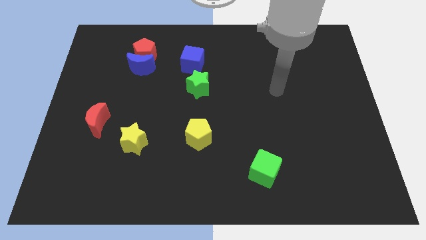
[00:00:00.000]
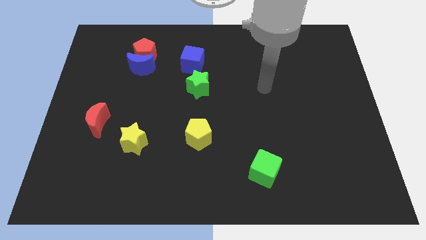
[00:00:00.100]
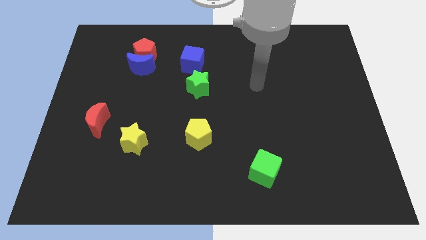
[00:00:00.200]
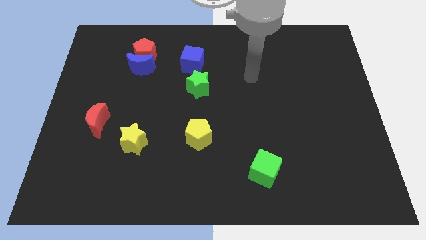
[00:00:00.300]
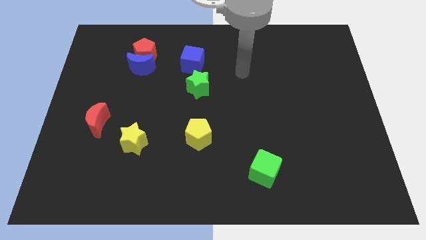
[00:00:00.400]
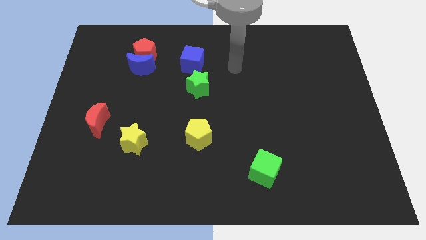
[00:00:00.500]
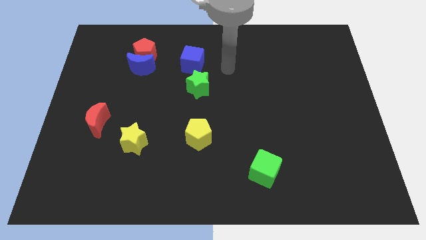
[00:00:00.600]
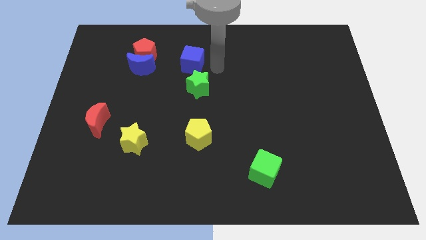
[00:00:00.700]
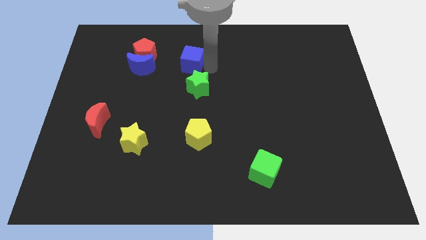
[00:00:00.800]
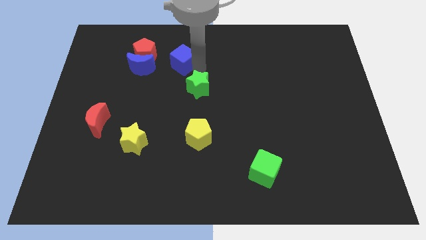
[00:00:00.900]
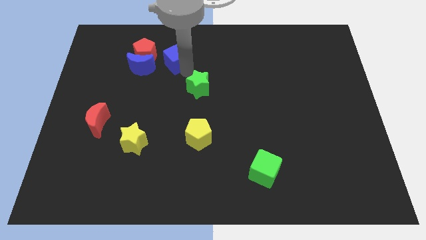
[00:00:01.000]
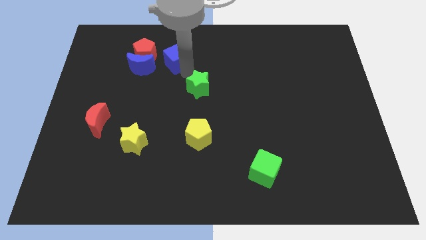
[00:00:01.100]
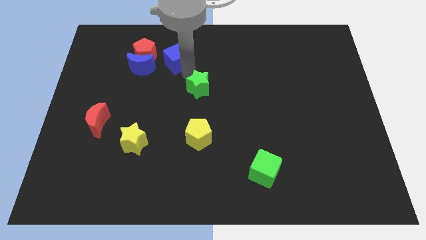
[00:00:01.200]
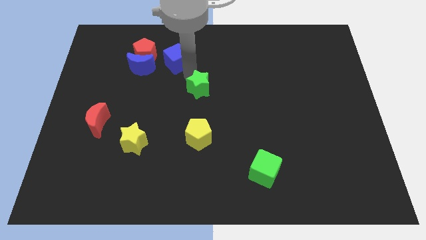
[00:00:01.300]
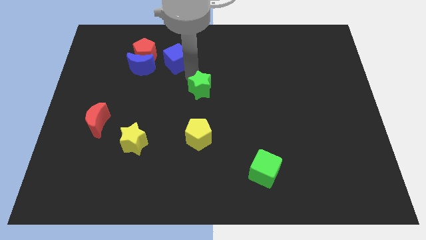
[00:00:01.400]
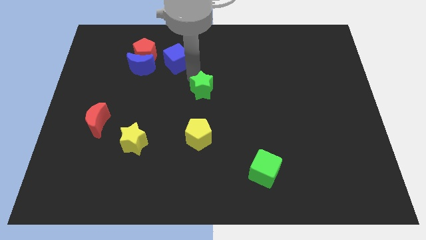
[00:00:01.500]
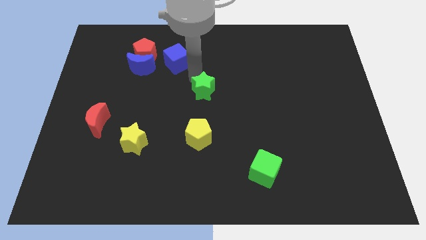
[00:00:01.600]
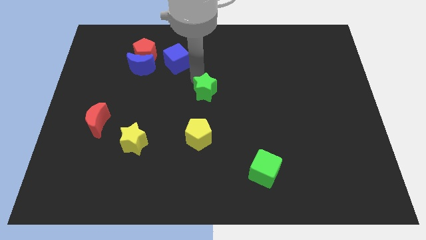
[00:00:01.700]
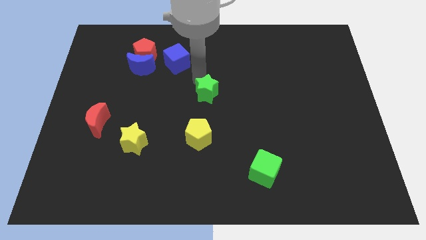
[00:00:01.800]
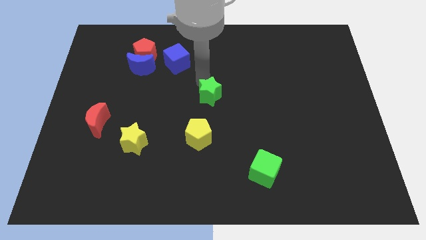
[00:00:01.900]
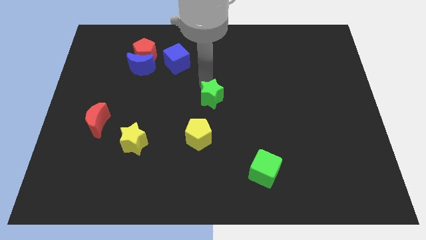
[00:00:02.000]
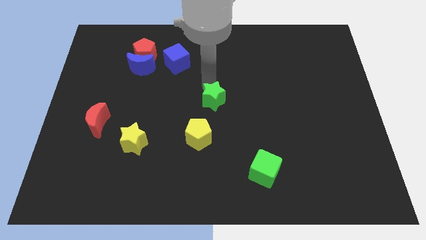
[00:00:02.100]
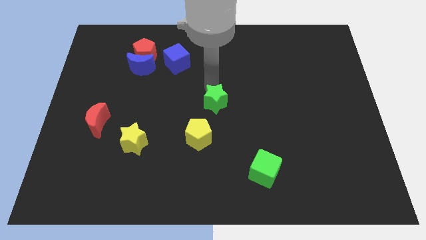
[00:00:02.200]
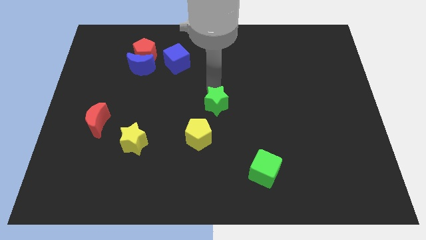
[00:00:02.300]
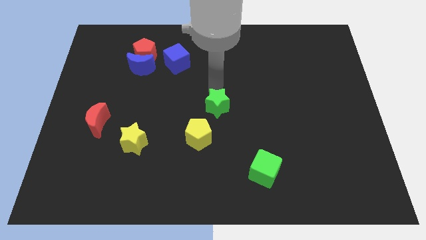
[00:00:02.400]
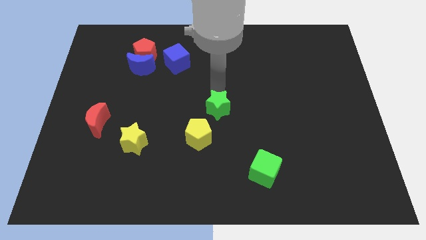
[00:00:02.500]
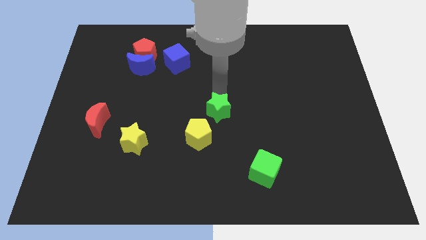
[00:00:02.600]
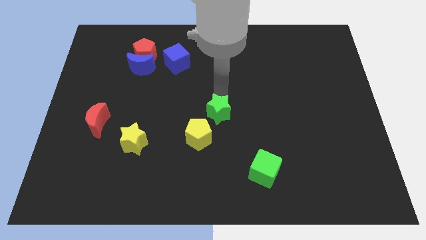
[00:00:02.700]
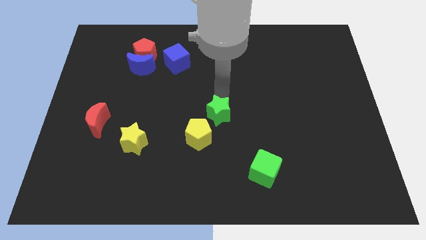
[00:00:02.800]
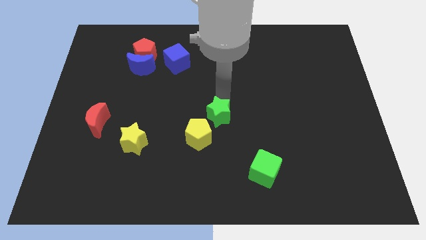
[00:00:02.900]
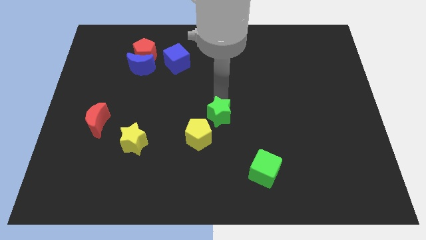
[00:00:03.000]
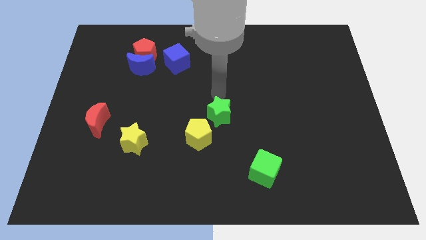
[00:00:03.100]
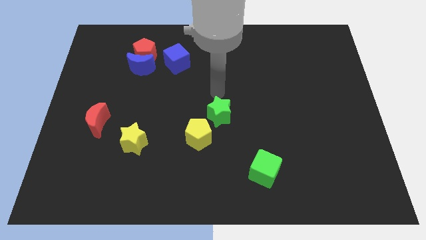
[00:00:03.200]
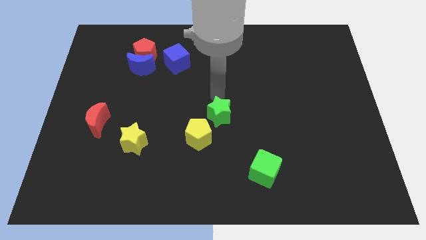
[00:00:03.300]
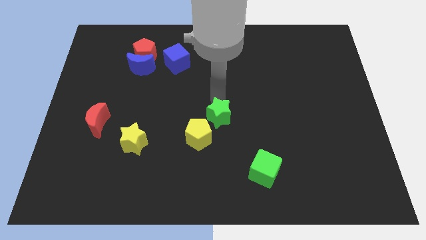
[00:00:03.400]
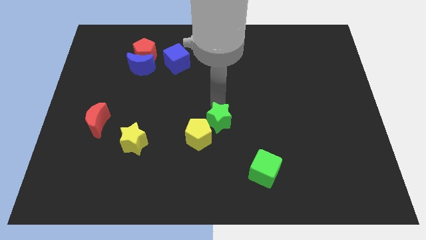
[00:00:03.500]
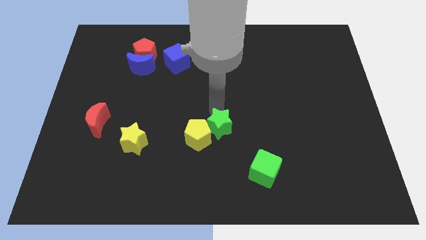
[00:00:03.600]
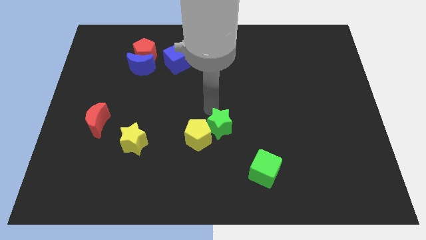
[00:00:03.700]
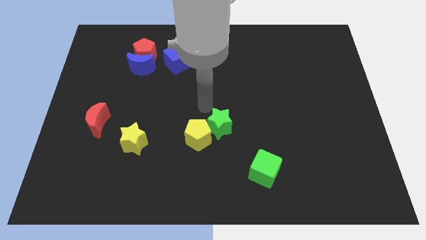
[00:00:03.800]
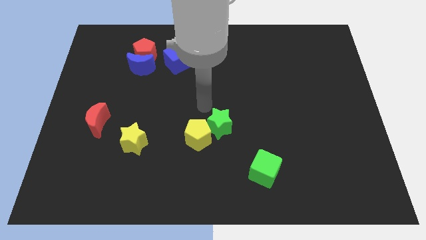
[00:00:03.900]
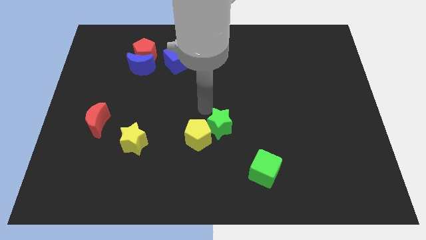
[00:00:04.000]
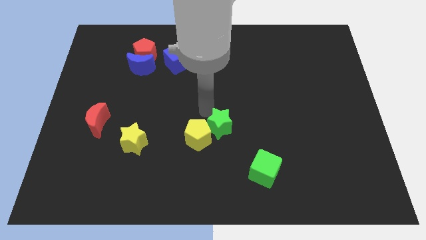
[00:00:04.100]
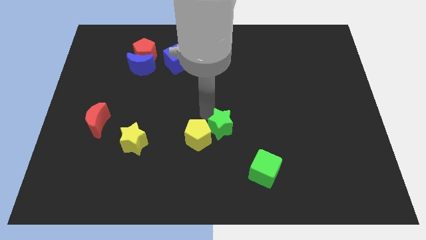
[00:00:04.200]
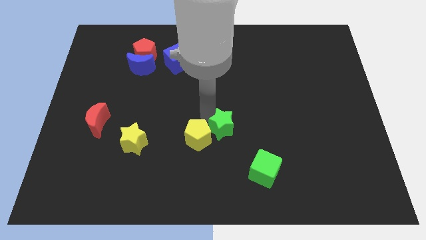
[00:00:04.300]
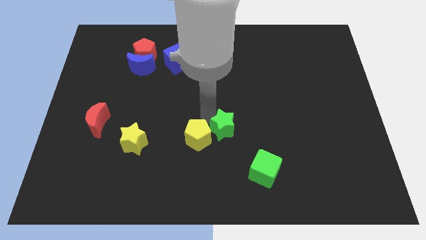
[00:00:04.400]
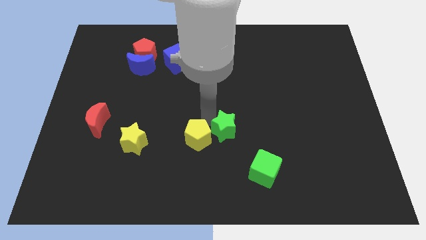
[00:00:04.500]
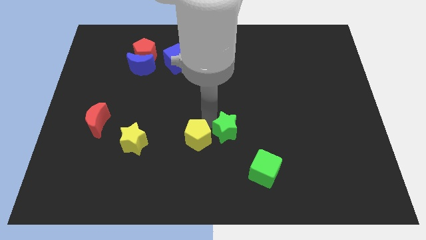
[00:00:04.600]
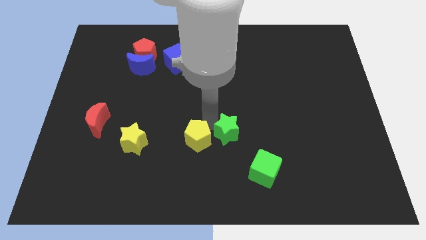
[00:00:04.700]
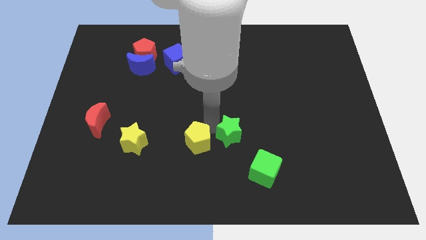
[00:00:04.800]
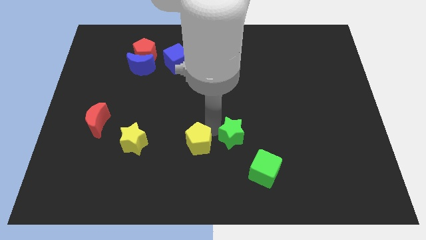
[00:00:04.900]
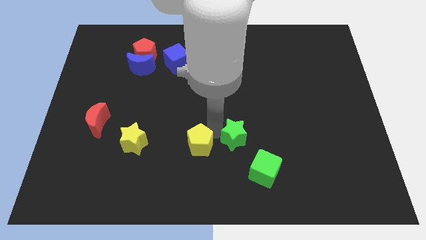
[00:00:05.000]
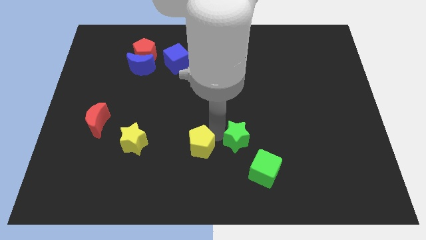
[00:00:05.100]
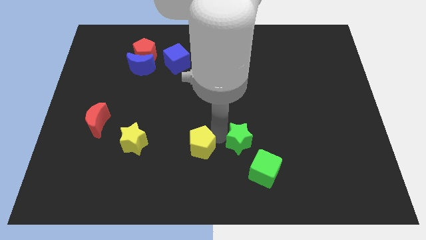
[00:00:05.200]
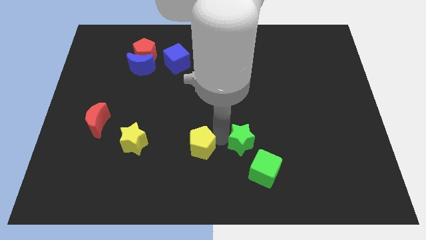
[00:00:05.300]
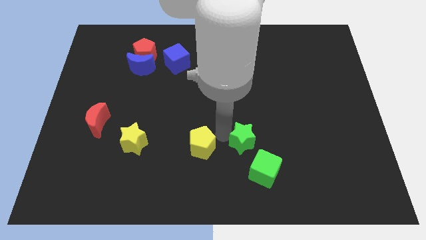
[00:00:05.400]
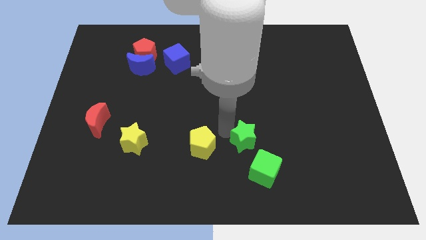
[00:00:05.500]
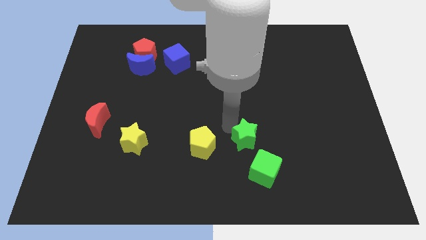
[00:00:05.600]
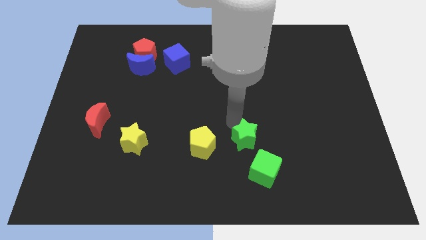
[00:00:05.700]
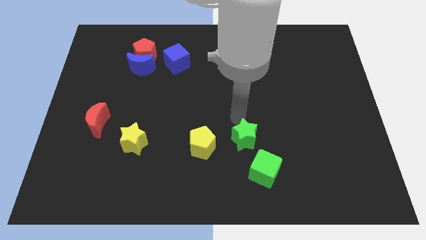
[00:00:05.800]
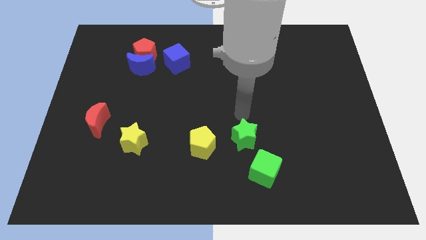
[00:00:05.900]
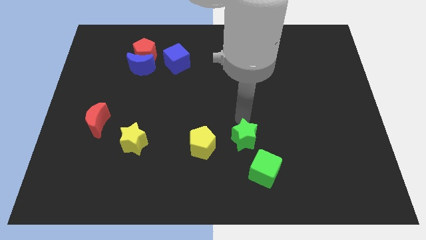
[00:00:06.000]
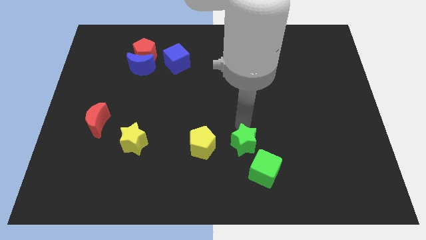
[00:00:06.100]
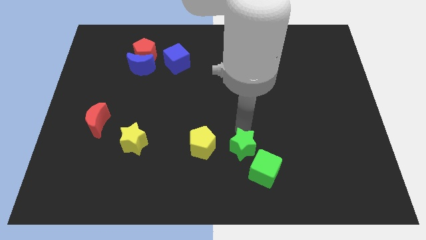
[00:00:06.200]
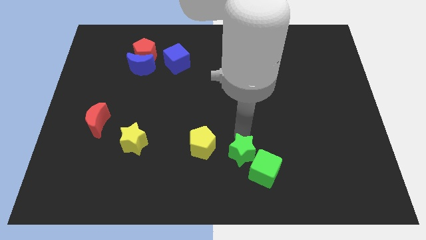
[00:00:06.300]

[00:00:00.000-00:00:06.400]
push the green star to the green cube

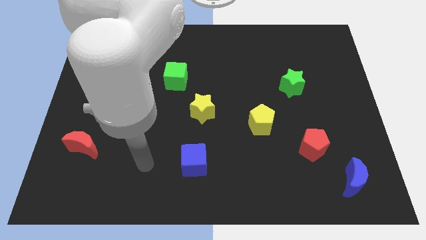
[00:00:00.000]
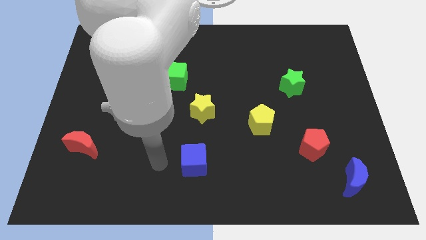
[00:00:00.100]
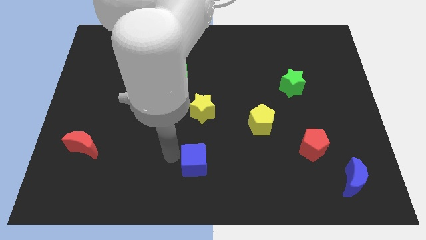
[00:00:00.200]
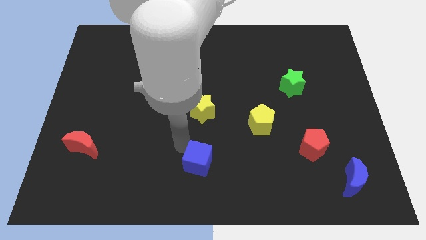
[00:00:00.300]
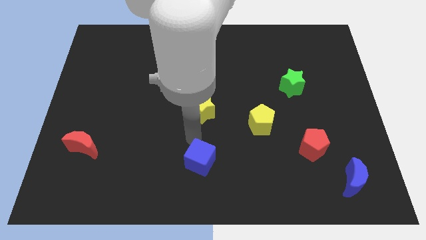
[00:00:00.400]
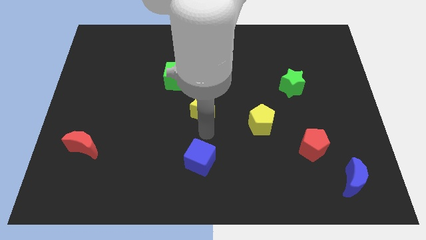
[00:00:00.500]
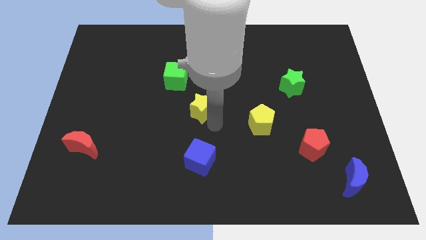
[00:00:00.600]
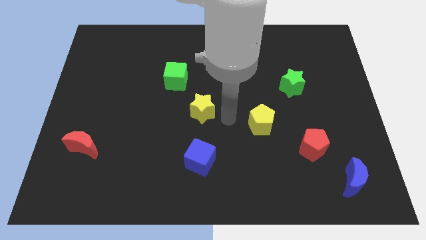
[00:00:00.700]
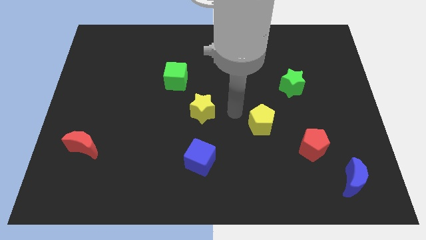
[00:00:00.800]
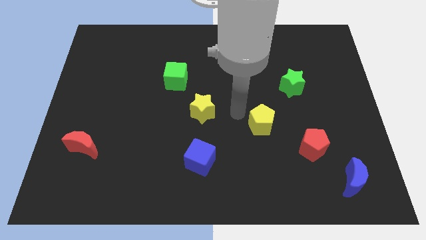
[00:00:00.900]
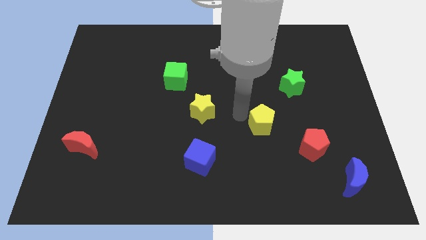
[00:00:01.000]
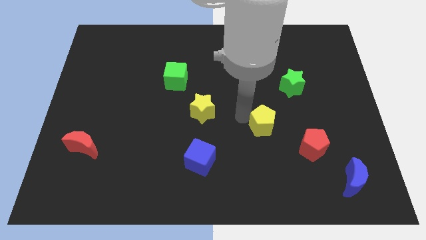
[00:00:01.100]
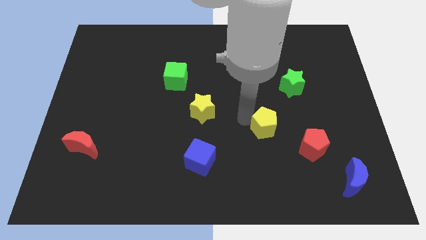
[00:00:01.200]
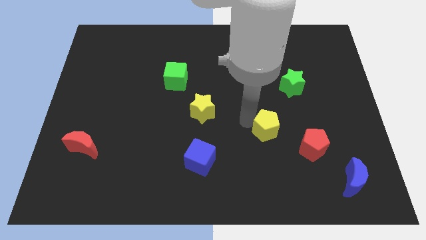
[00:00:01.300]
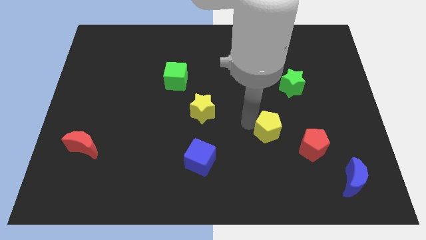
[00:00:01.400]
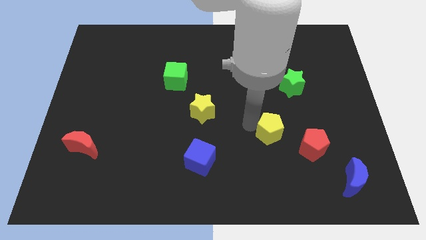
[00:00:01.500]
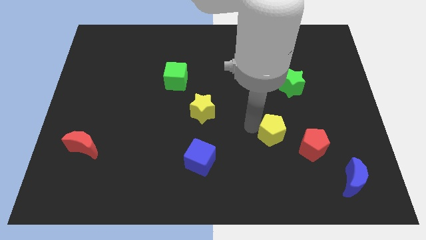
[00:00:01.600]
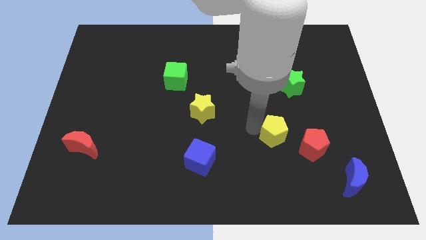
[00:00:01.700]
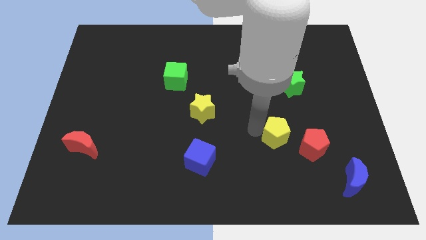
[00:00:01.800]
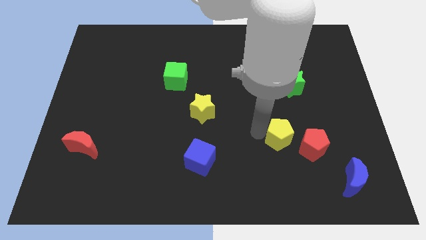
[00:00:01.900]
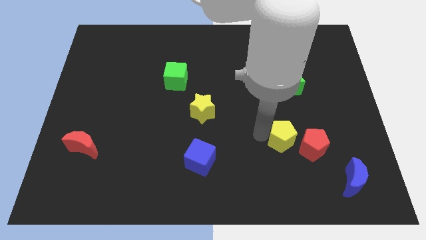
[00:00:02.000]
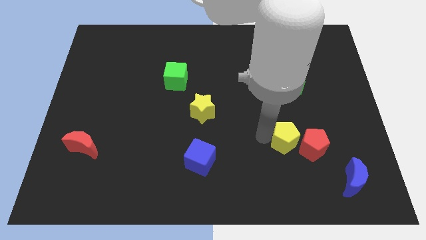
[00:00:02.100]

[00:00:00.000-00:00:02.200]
push the yellow pentagon close to the red pentagon
